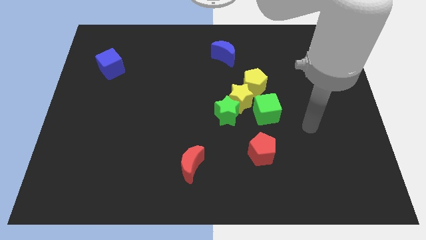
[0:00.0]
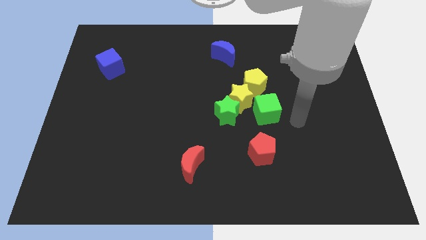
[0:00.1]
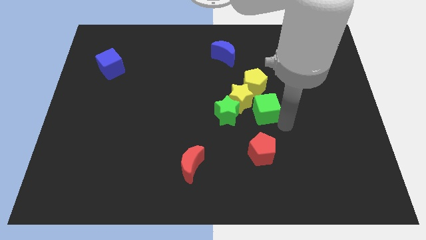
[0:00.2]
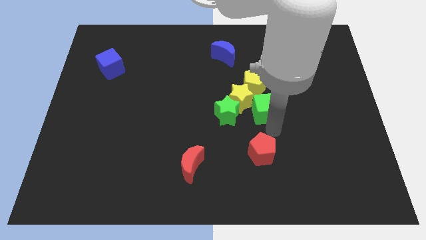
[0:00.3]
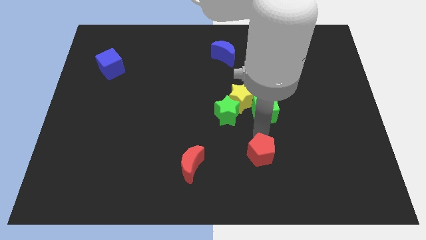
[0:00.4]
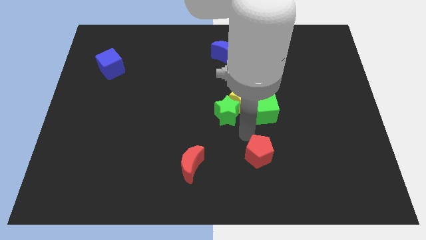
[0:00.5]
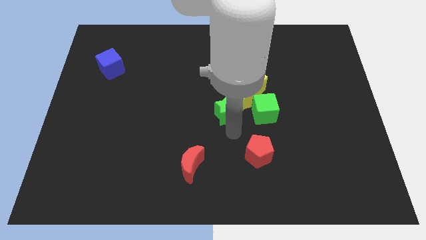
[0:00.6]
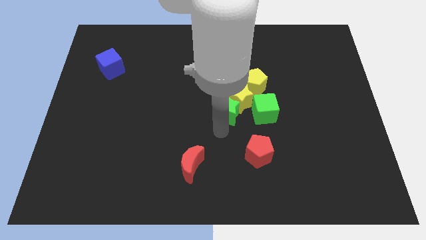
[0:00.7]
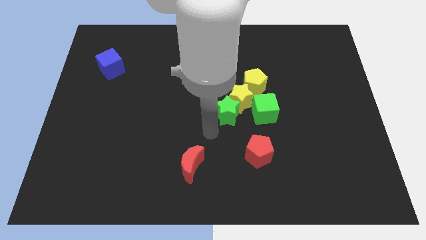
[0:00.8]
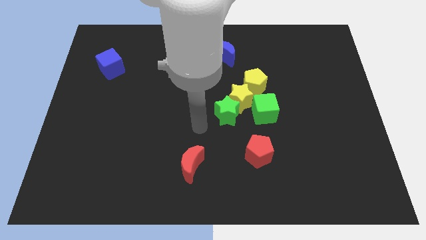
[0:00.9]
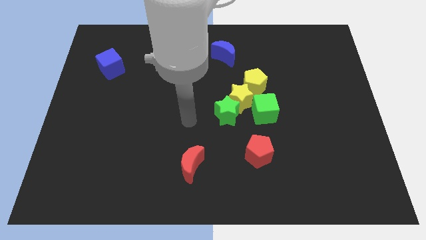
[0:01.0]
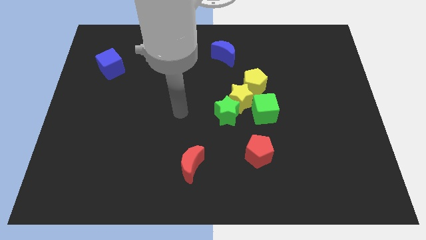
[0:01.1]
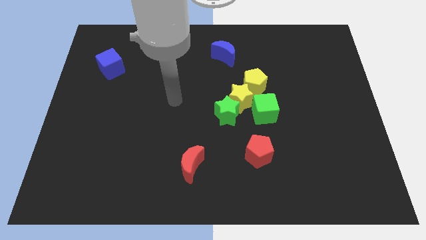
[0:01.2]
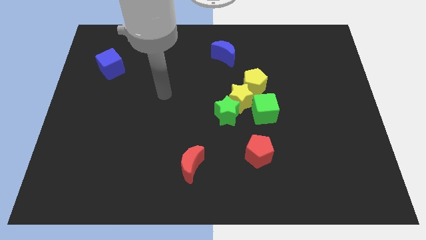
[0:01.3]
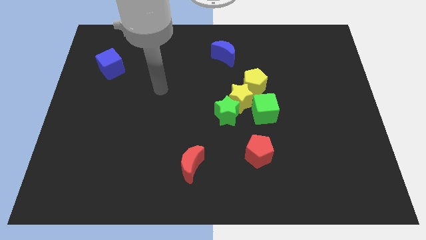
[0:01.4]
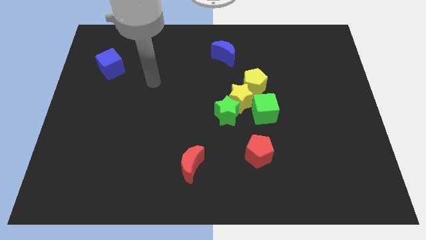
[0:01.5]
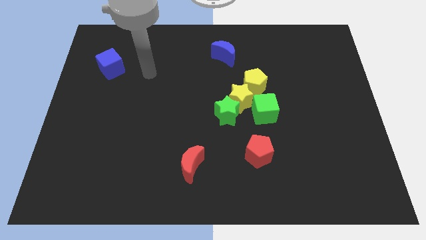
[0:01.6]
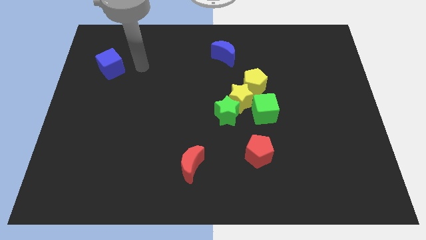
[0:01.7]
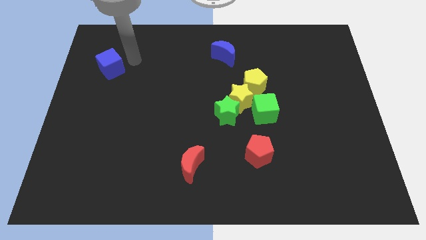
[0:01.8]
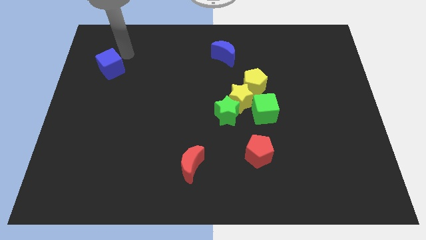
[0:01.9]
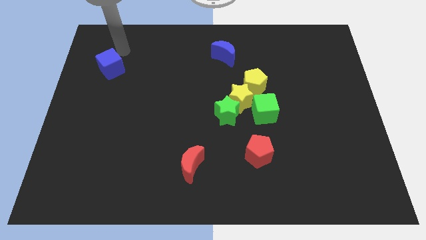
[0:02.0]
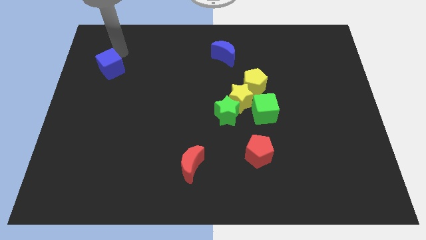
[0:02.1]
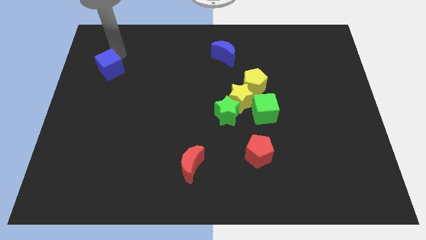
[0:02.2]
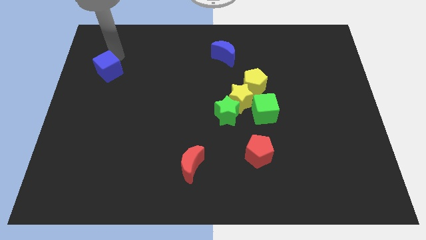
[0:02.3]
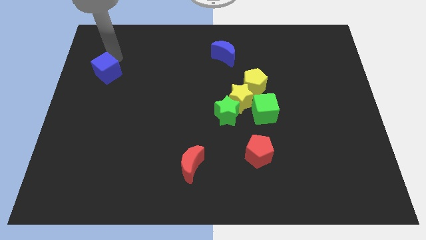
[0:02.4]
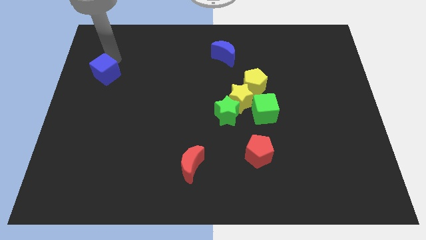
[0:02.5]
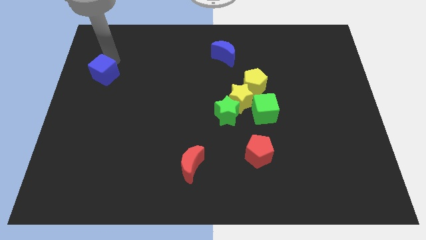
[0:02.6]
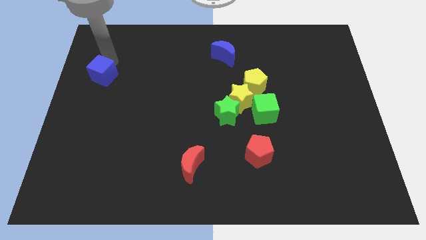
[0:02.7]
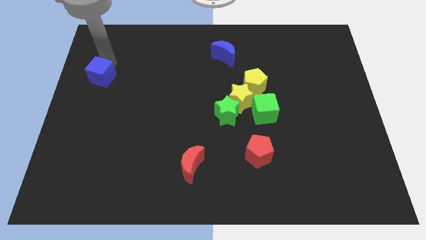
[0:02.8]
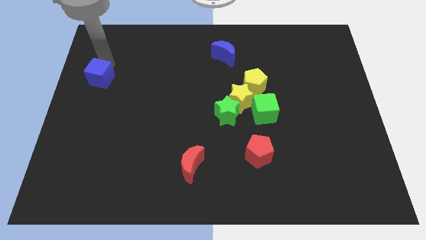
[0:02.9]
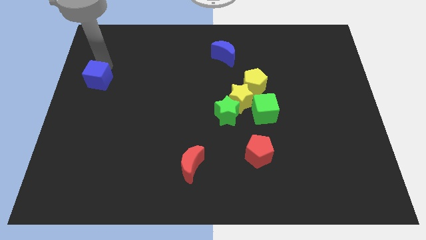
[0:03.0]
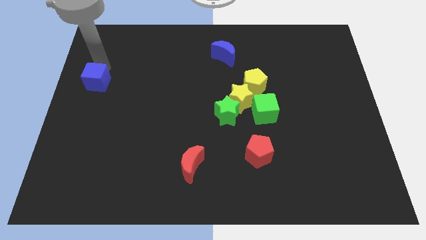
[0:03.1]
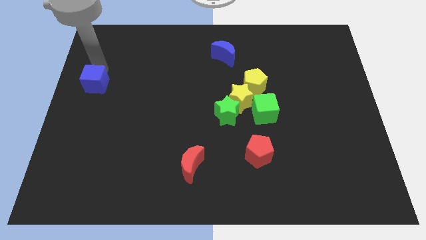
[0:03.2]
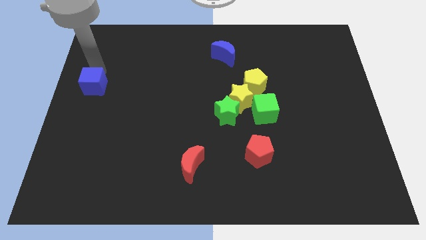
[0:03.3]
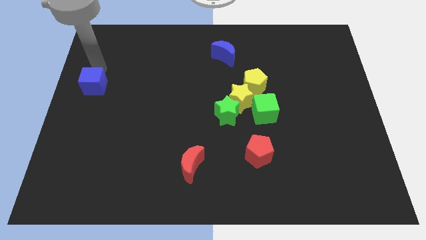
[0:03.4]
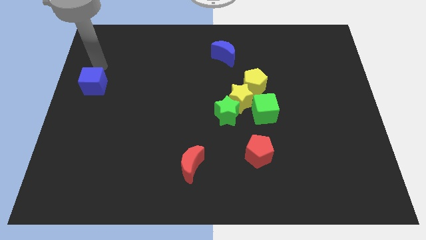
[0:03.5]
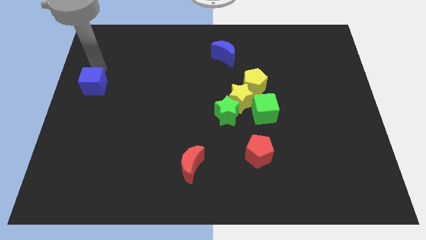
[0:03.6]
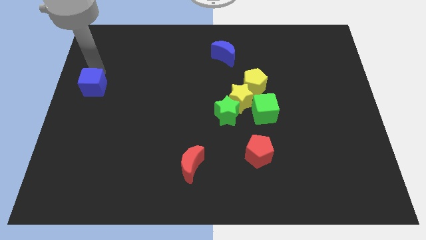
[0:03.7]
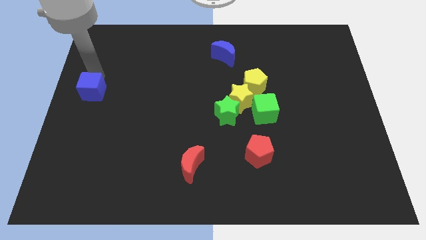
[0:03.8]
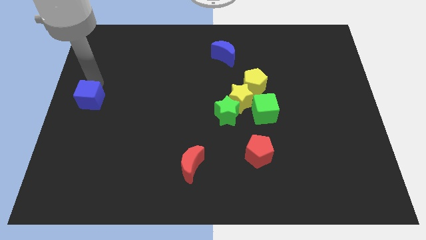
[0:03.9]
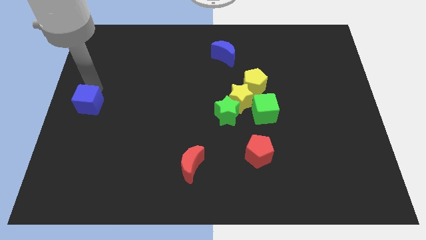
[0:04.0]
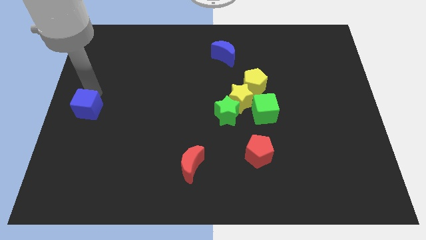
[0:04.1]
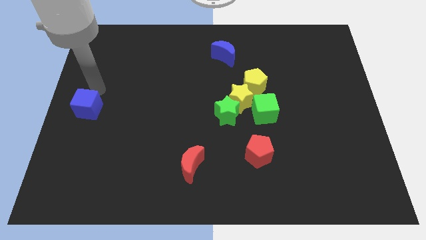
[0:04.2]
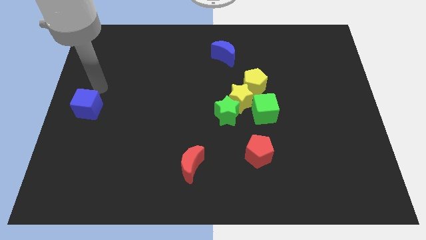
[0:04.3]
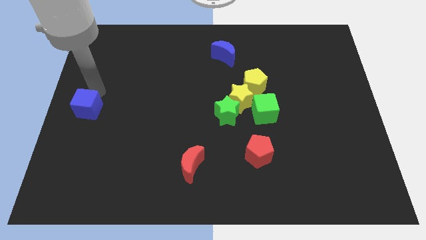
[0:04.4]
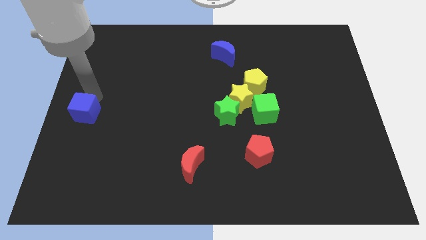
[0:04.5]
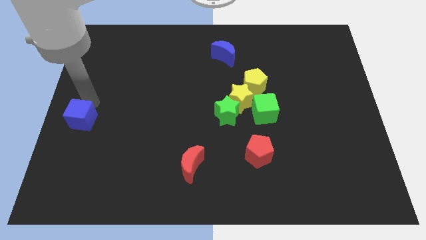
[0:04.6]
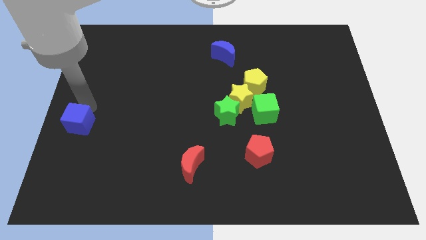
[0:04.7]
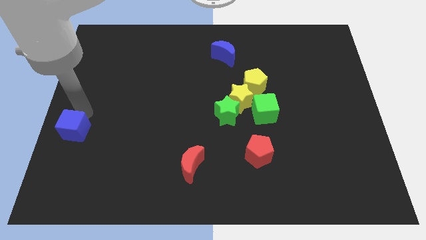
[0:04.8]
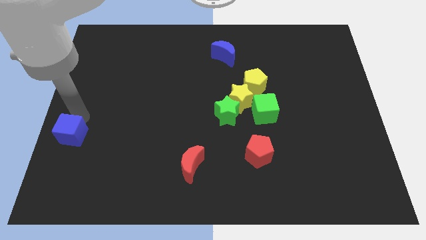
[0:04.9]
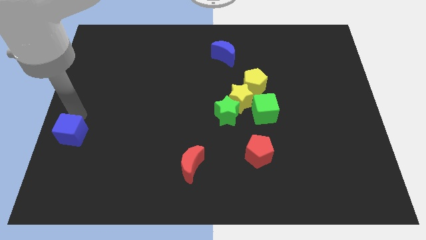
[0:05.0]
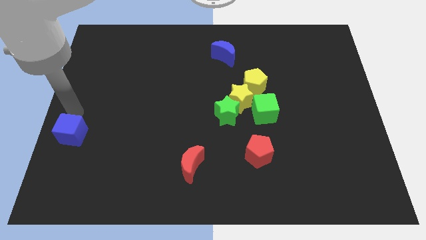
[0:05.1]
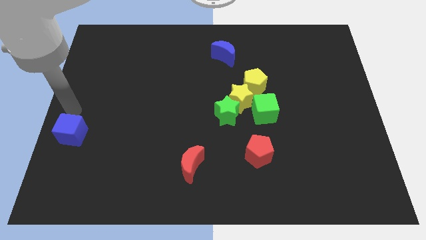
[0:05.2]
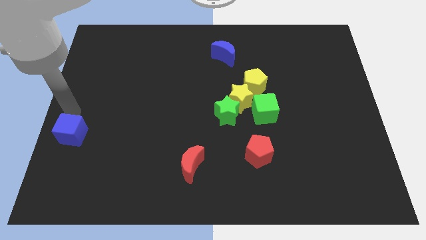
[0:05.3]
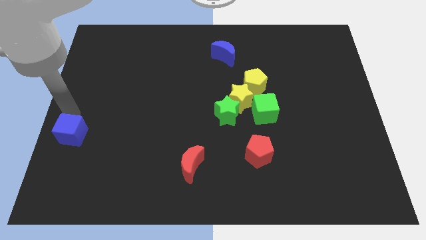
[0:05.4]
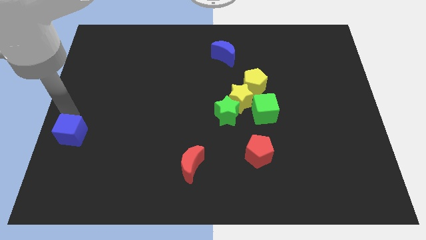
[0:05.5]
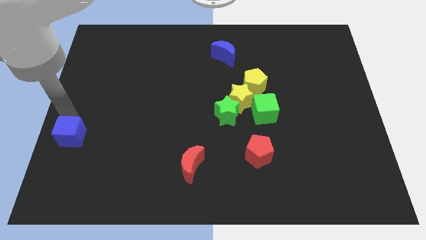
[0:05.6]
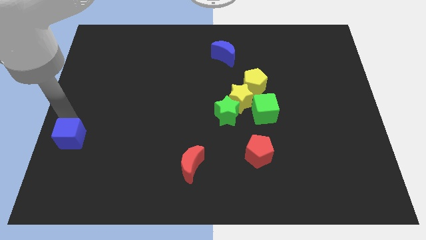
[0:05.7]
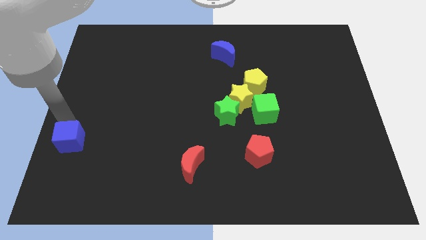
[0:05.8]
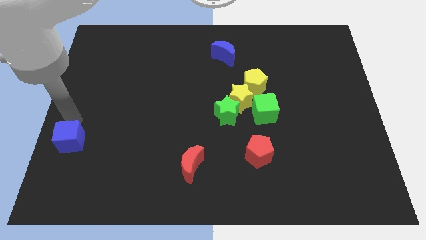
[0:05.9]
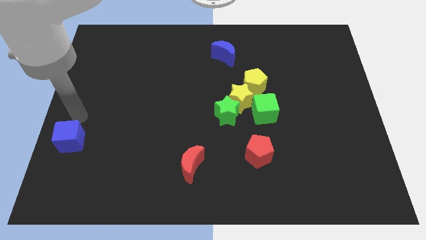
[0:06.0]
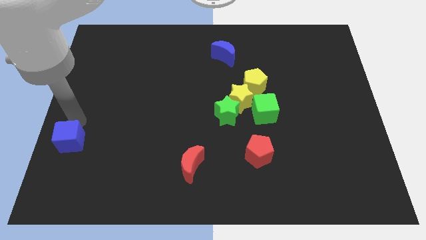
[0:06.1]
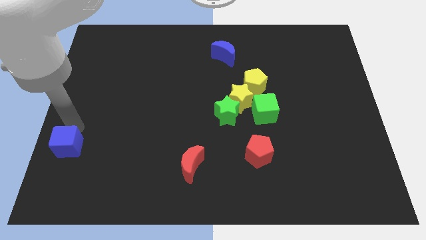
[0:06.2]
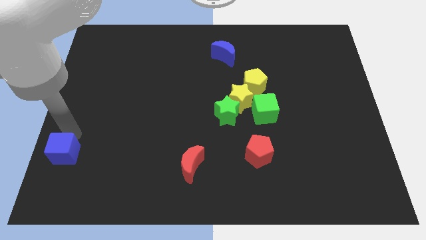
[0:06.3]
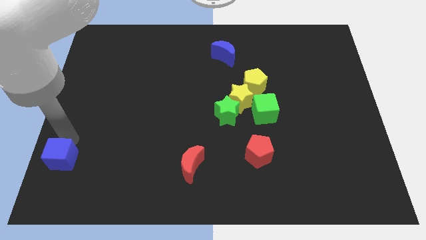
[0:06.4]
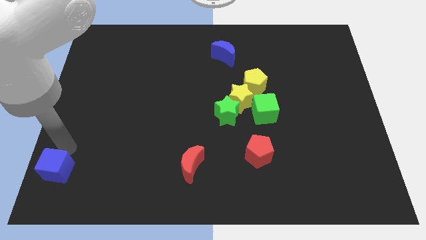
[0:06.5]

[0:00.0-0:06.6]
slide the blue cube to the bottom left of the board

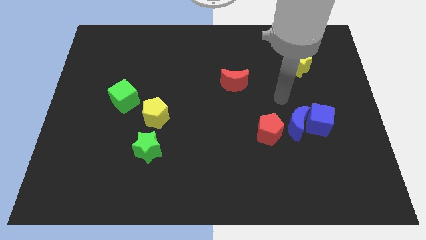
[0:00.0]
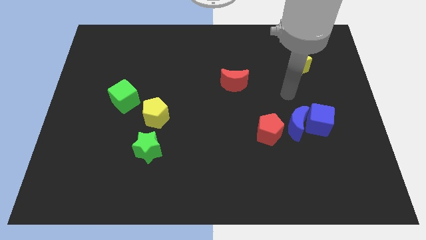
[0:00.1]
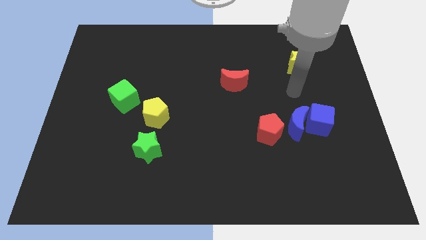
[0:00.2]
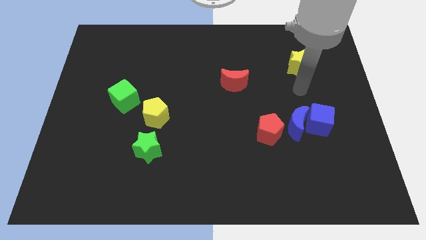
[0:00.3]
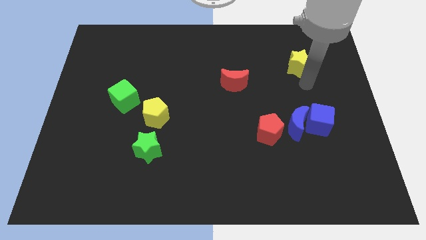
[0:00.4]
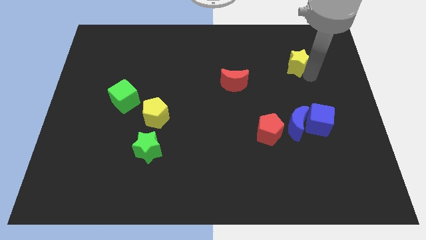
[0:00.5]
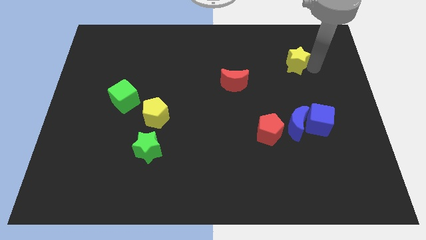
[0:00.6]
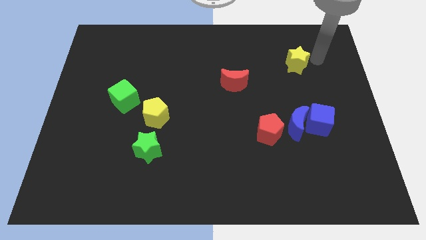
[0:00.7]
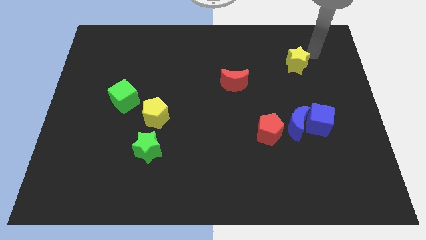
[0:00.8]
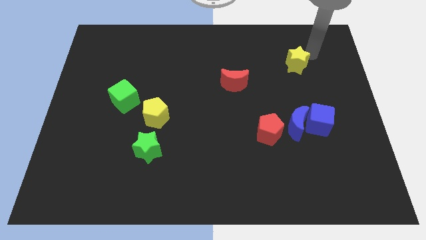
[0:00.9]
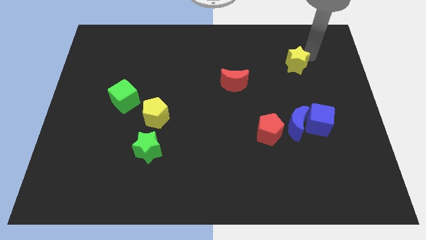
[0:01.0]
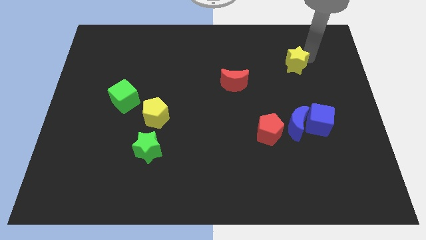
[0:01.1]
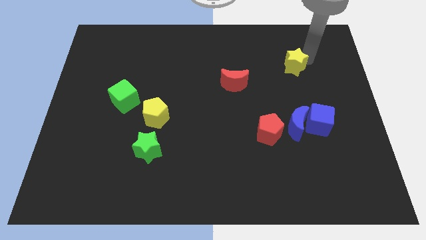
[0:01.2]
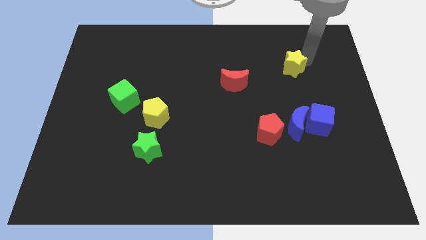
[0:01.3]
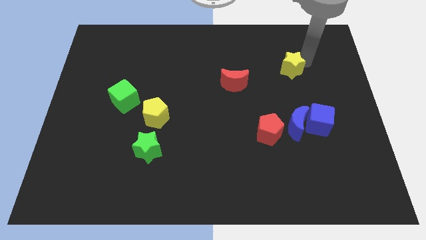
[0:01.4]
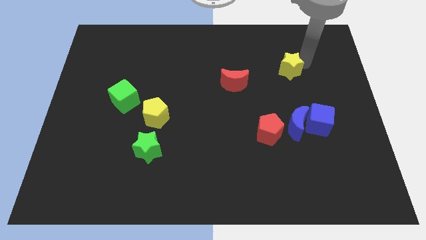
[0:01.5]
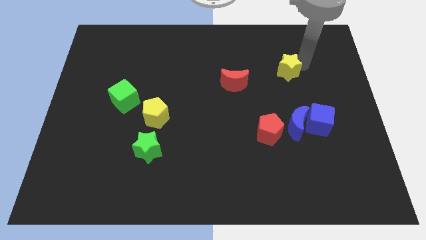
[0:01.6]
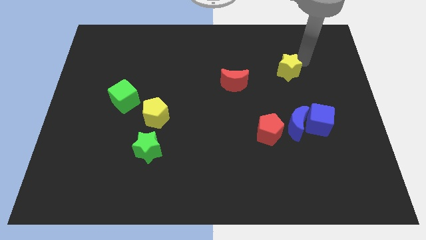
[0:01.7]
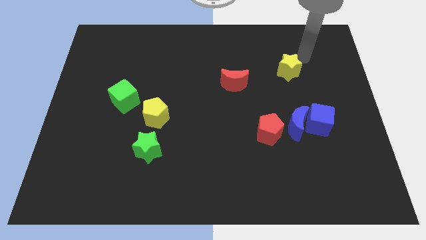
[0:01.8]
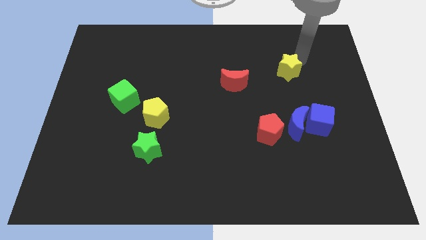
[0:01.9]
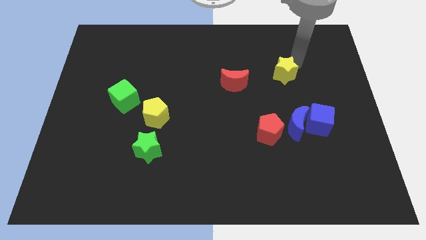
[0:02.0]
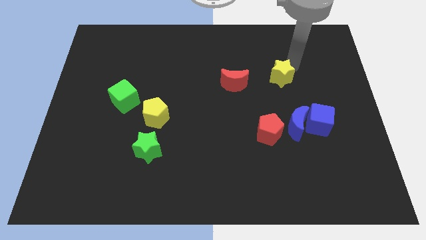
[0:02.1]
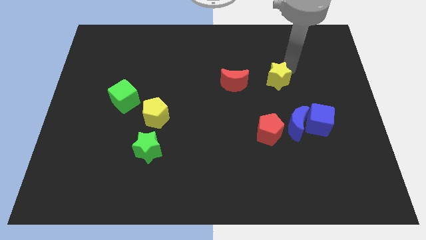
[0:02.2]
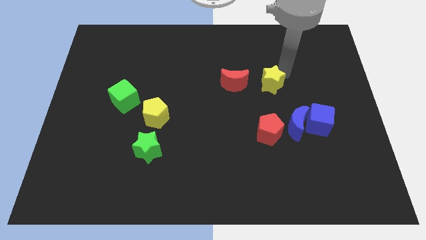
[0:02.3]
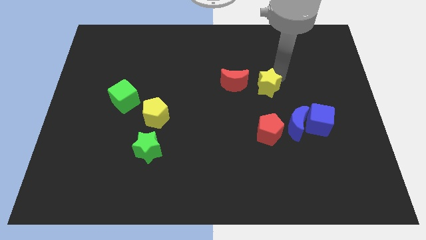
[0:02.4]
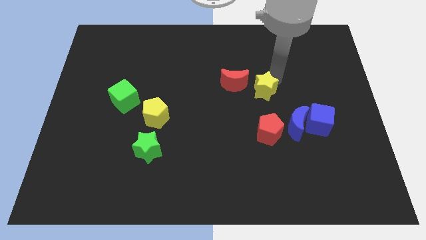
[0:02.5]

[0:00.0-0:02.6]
put the yellow star to the middle
